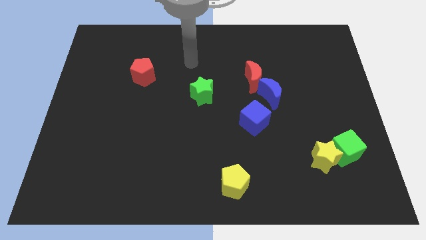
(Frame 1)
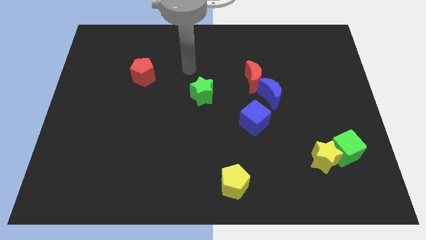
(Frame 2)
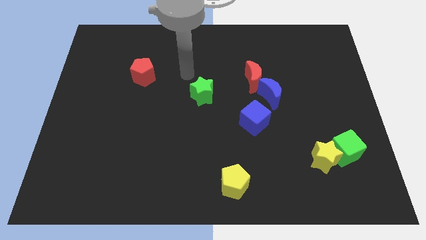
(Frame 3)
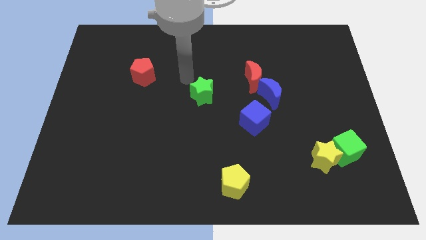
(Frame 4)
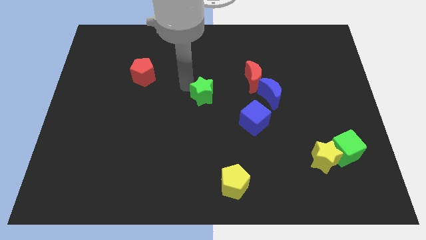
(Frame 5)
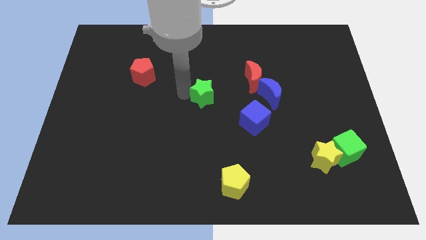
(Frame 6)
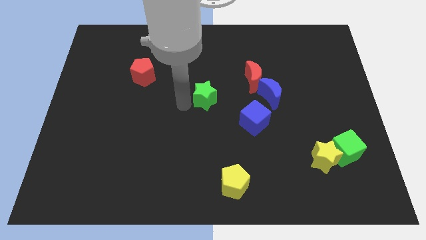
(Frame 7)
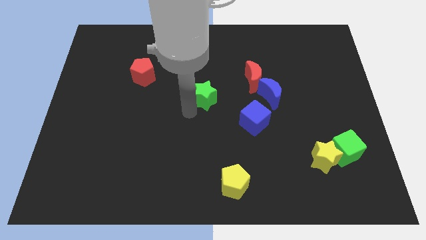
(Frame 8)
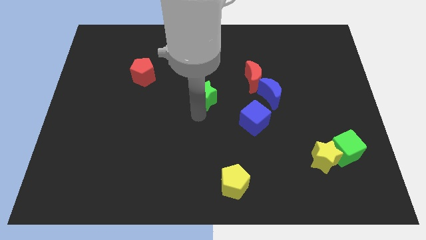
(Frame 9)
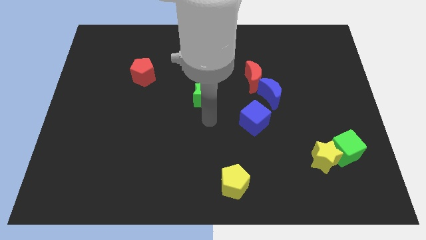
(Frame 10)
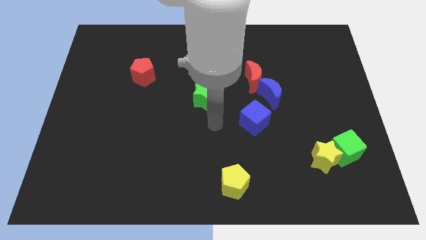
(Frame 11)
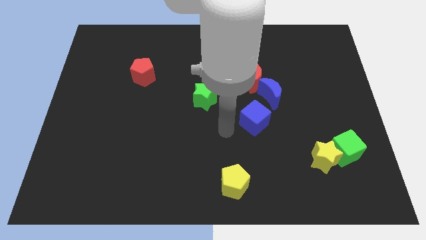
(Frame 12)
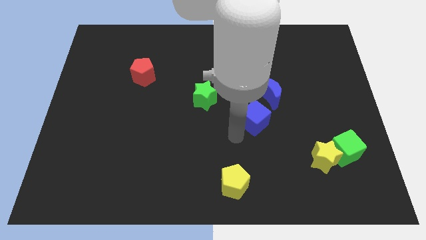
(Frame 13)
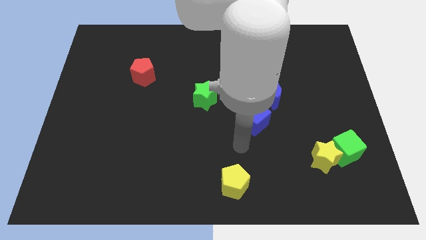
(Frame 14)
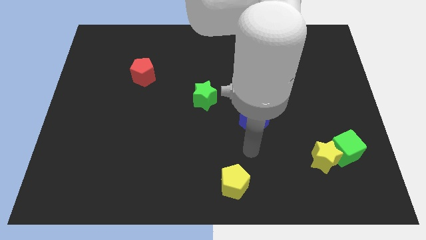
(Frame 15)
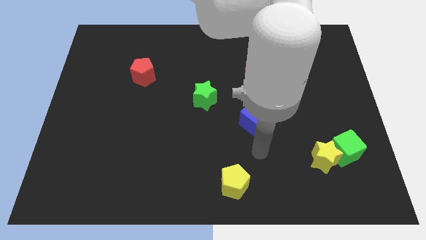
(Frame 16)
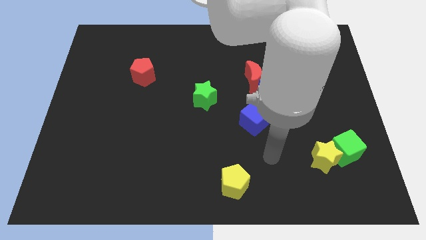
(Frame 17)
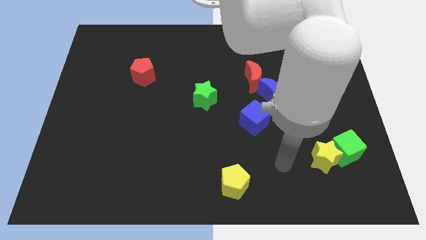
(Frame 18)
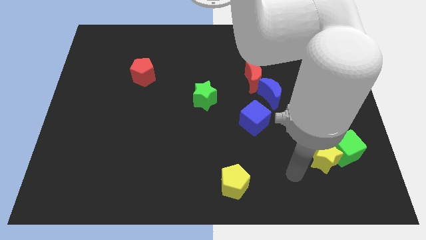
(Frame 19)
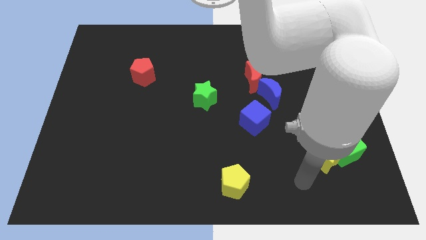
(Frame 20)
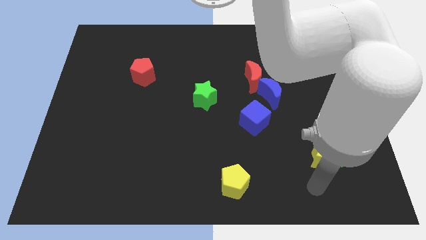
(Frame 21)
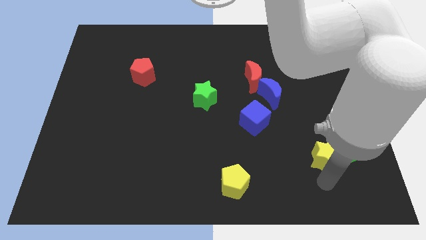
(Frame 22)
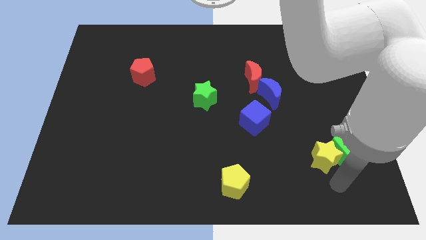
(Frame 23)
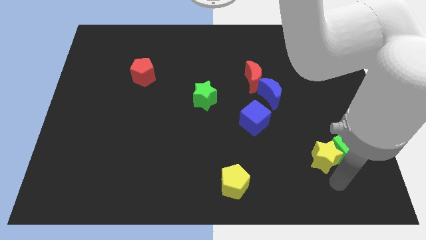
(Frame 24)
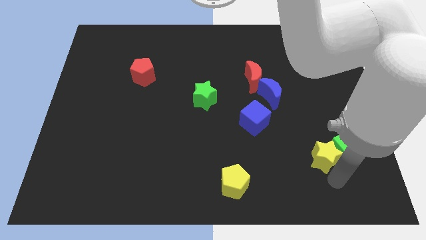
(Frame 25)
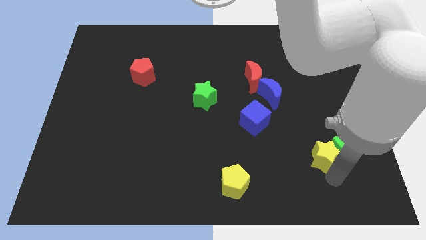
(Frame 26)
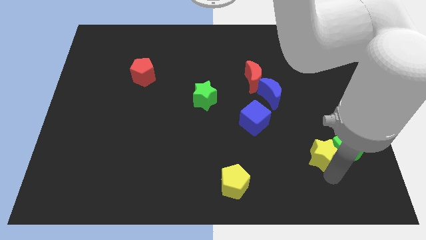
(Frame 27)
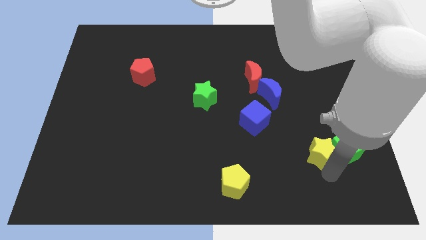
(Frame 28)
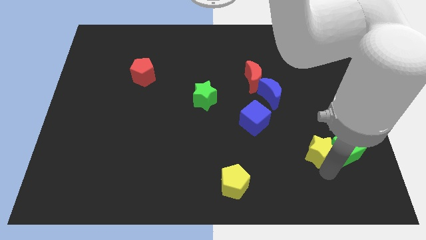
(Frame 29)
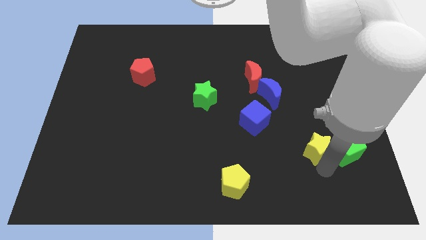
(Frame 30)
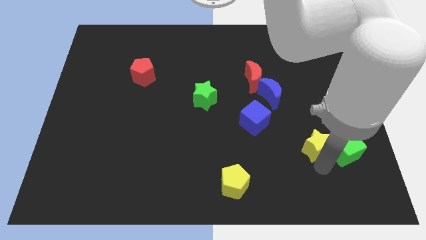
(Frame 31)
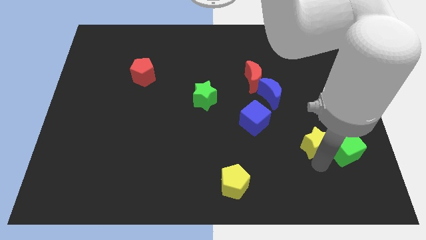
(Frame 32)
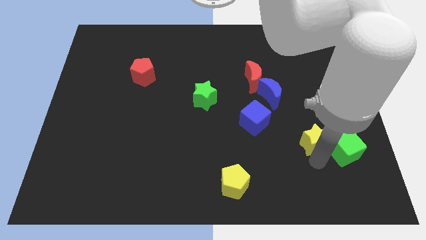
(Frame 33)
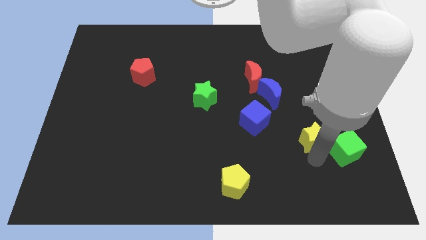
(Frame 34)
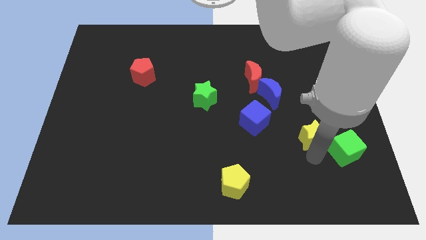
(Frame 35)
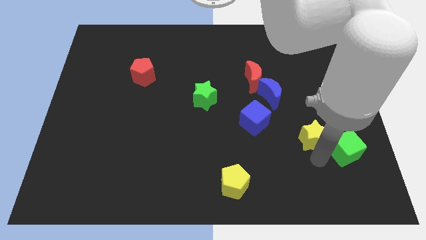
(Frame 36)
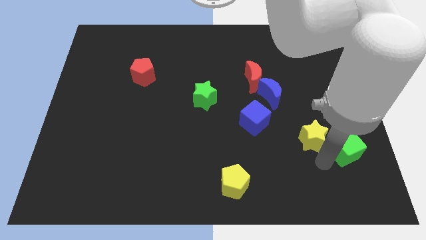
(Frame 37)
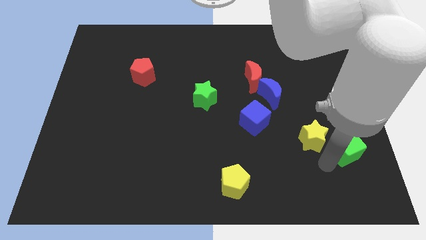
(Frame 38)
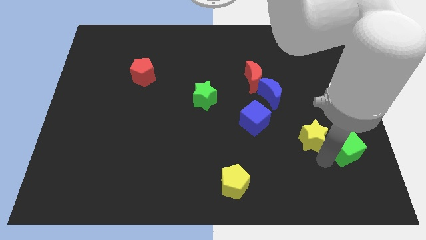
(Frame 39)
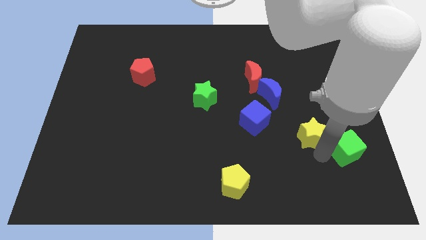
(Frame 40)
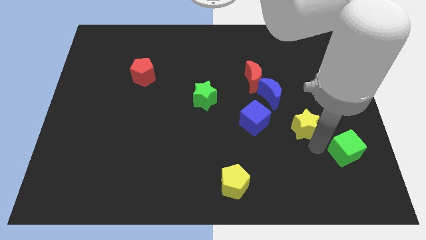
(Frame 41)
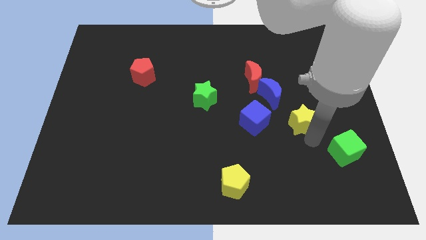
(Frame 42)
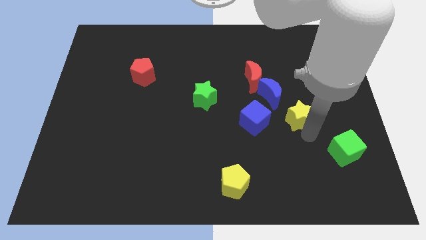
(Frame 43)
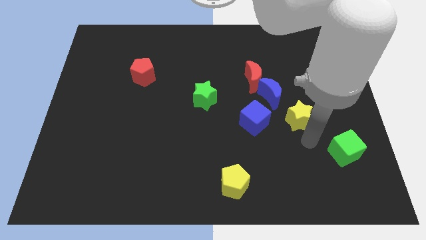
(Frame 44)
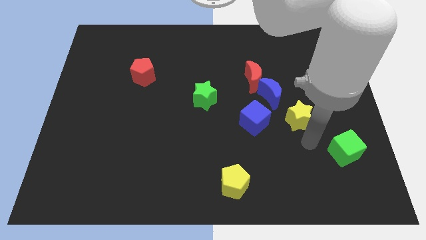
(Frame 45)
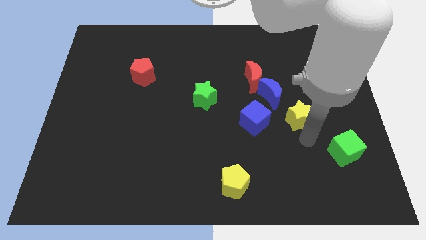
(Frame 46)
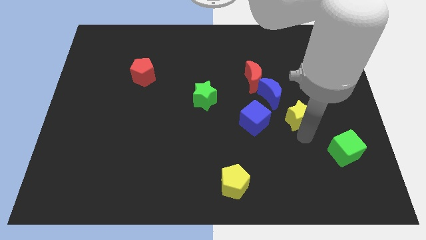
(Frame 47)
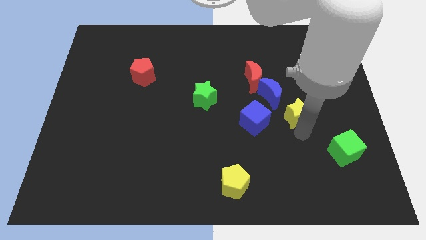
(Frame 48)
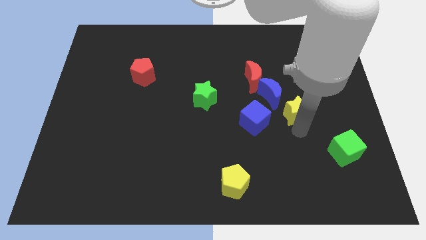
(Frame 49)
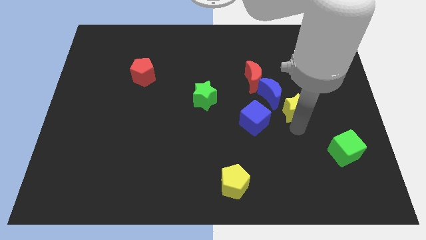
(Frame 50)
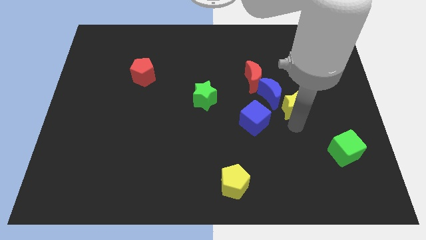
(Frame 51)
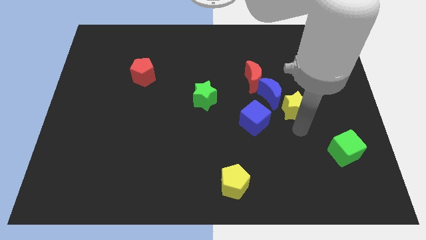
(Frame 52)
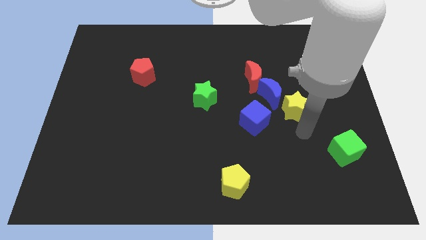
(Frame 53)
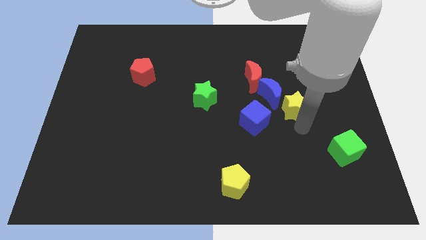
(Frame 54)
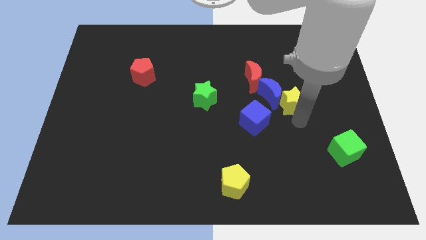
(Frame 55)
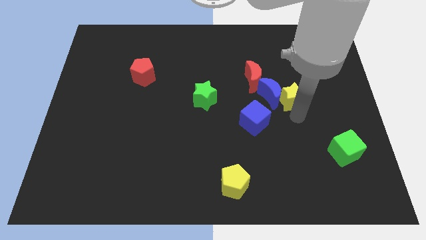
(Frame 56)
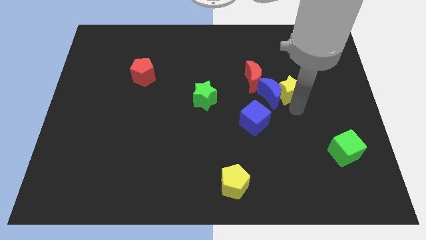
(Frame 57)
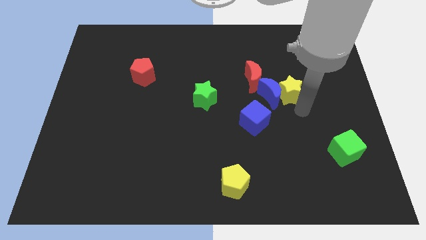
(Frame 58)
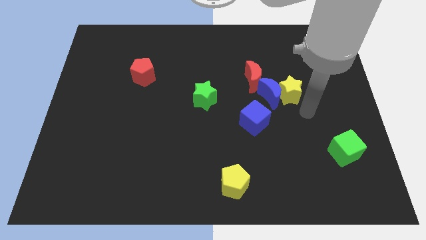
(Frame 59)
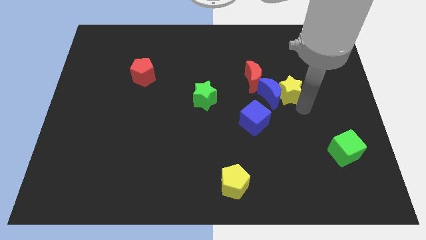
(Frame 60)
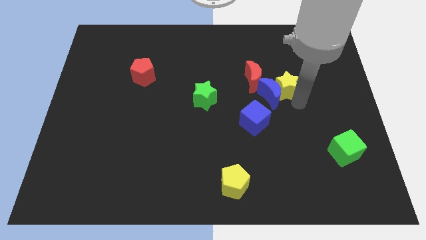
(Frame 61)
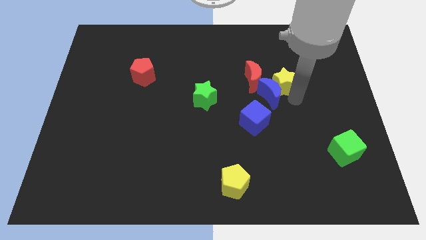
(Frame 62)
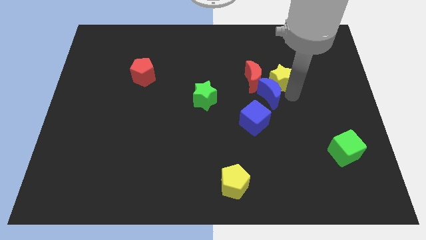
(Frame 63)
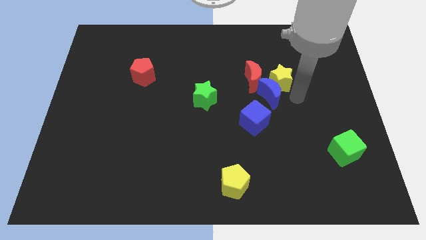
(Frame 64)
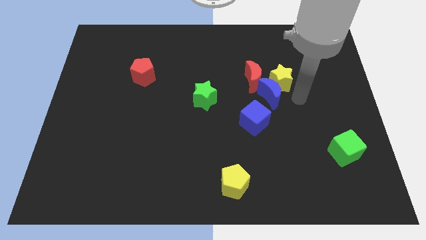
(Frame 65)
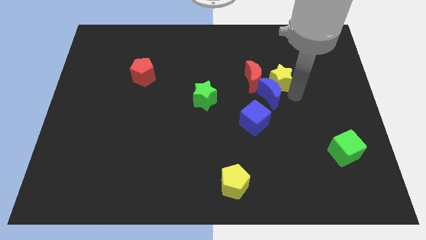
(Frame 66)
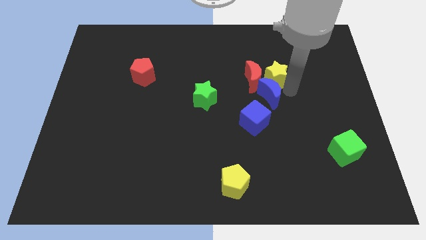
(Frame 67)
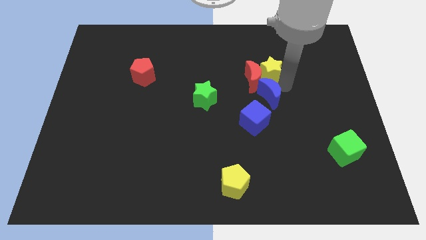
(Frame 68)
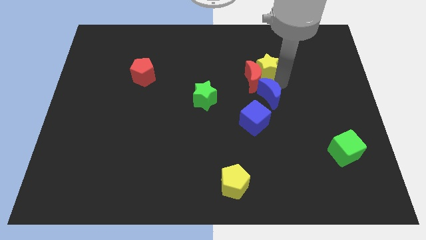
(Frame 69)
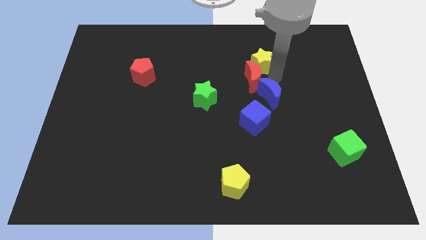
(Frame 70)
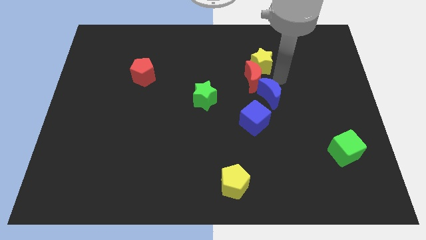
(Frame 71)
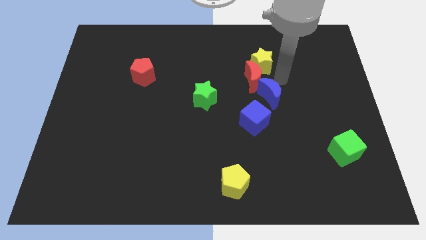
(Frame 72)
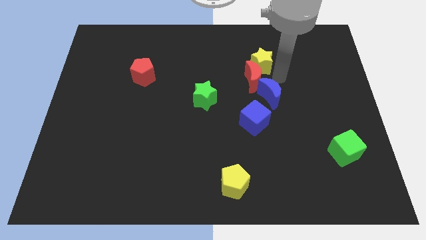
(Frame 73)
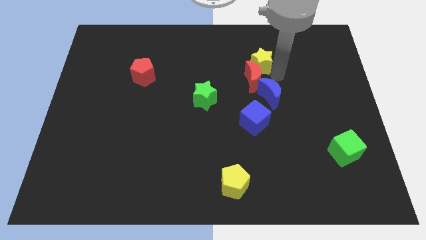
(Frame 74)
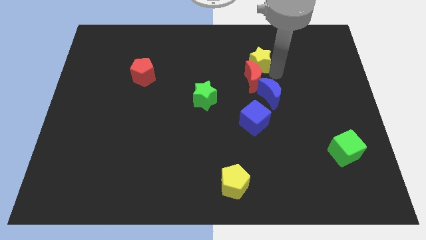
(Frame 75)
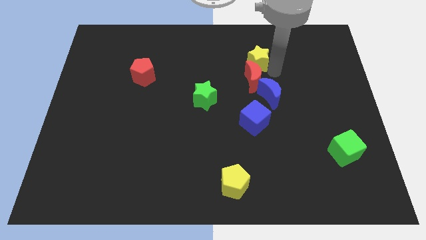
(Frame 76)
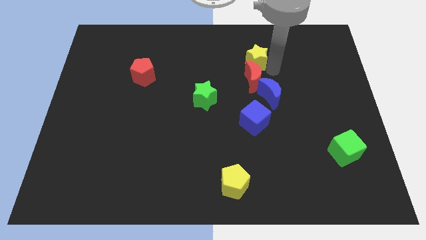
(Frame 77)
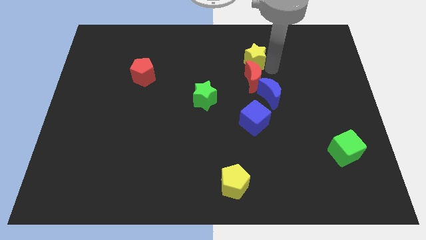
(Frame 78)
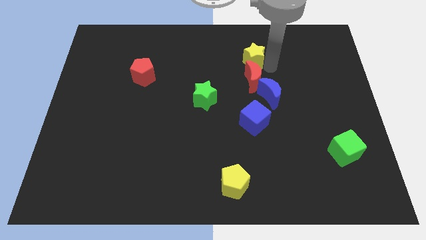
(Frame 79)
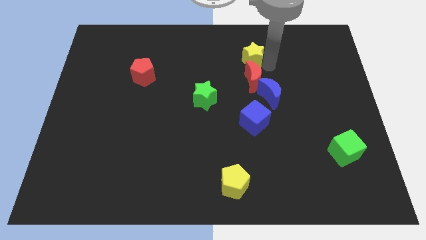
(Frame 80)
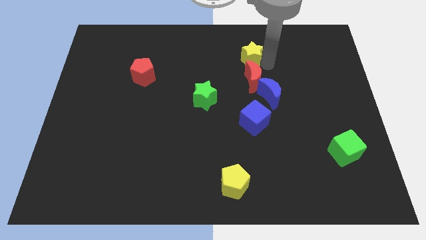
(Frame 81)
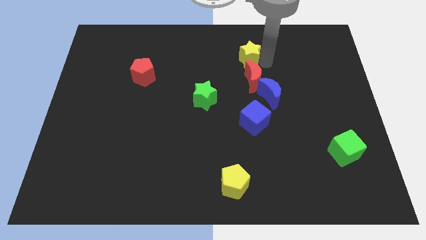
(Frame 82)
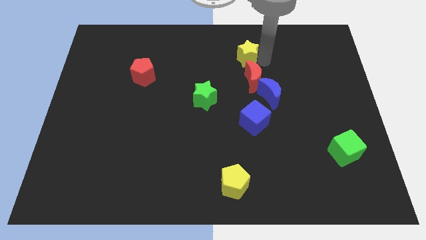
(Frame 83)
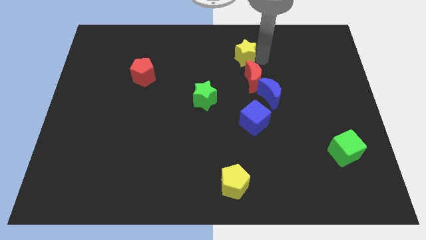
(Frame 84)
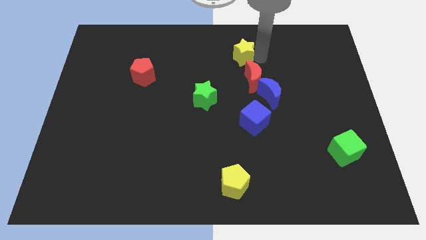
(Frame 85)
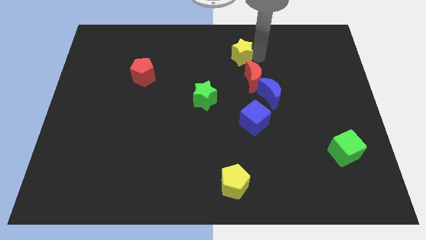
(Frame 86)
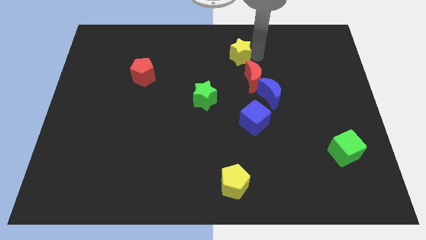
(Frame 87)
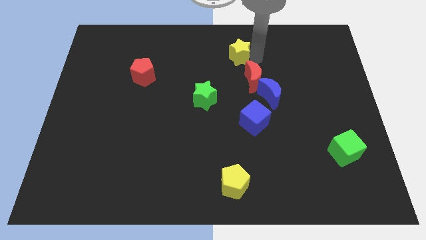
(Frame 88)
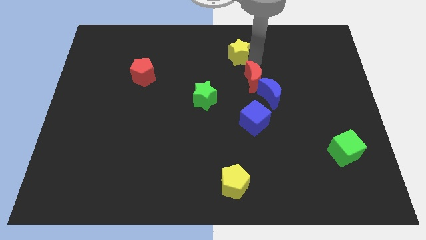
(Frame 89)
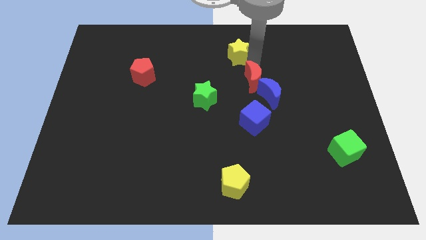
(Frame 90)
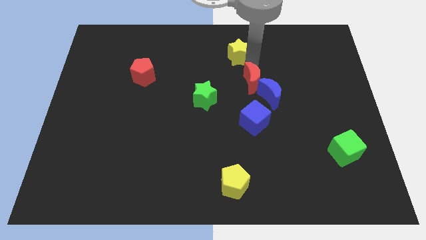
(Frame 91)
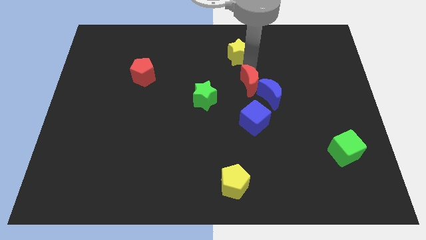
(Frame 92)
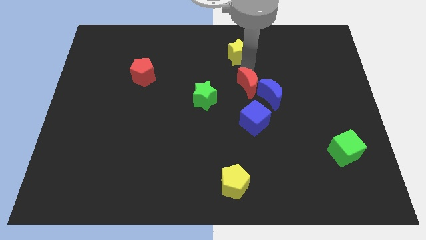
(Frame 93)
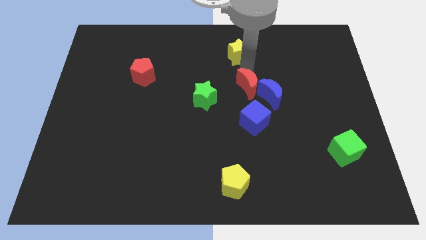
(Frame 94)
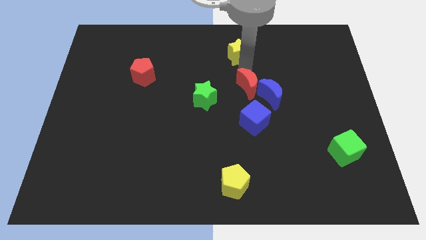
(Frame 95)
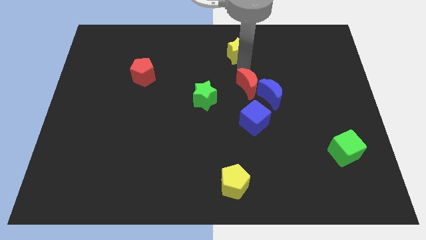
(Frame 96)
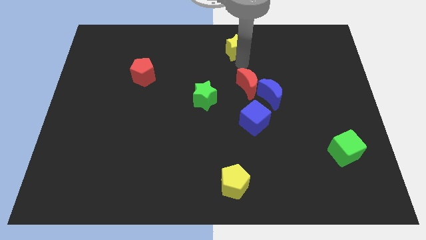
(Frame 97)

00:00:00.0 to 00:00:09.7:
put the yellow star to the top side
